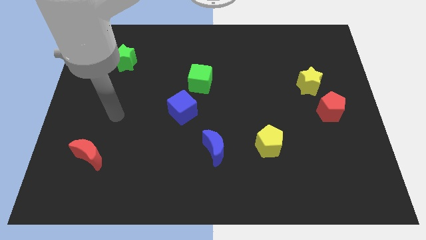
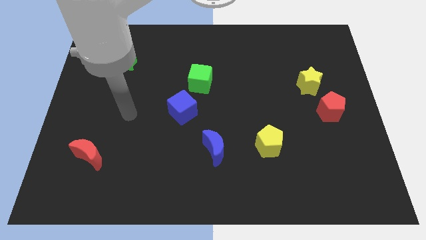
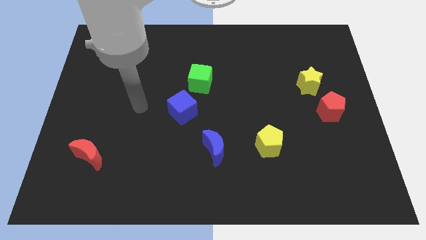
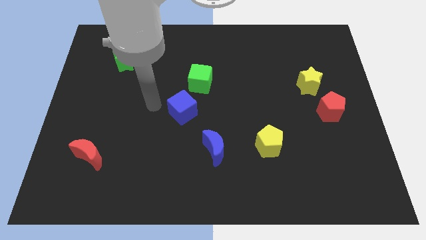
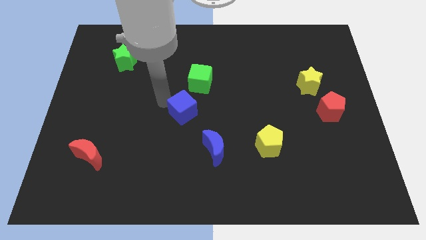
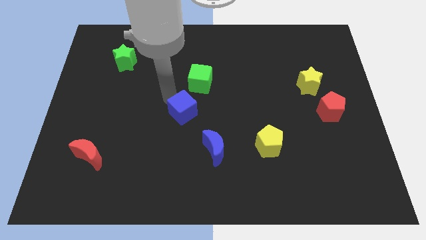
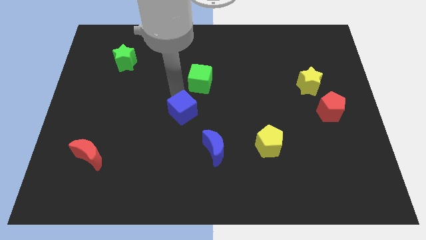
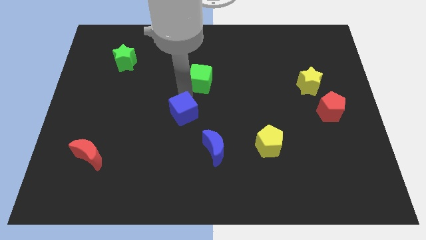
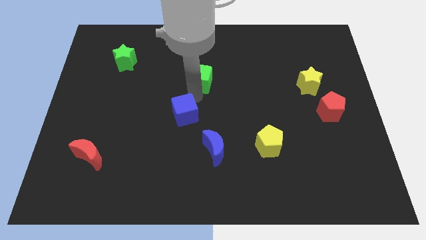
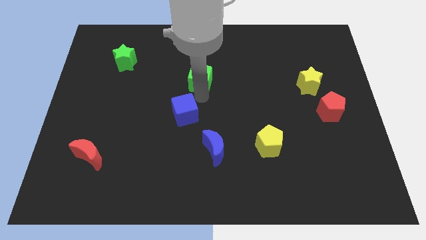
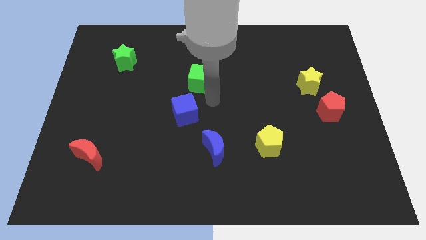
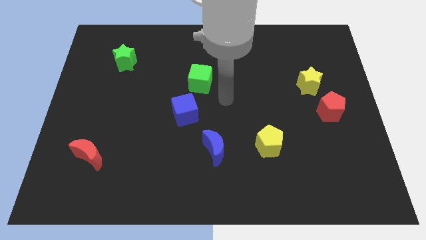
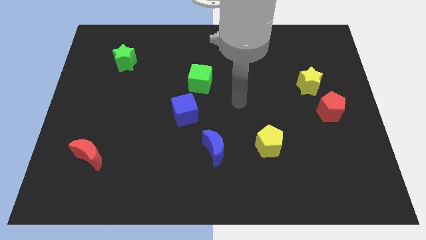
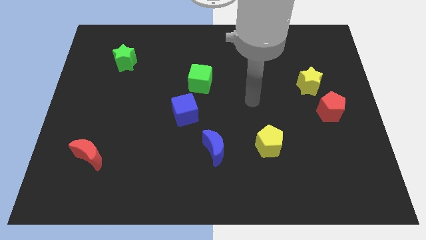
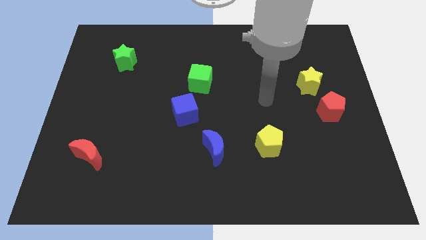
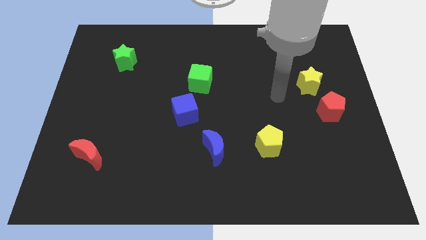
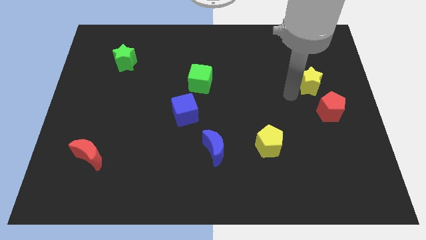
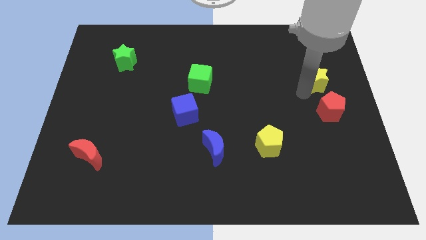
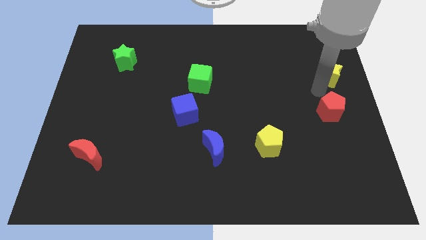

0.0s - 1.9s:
pull the red pentagon apart from the yellow star

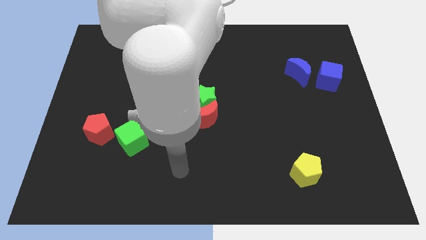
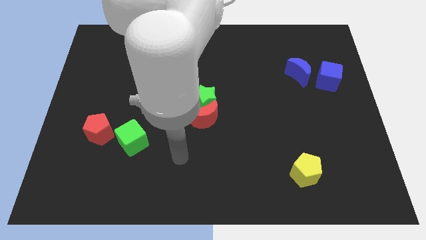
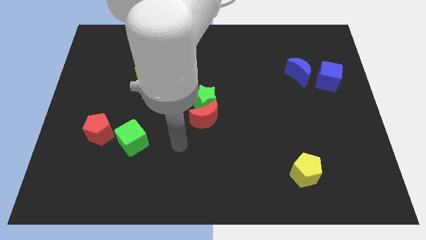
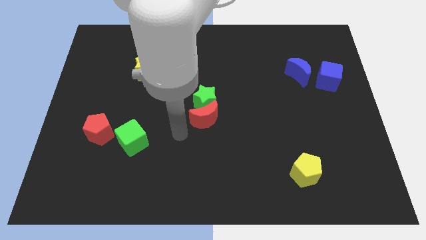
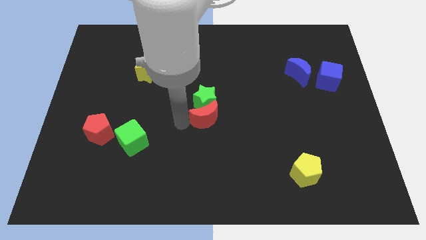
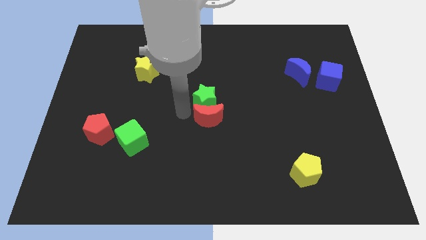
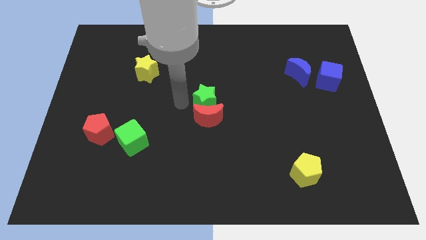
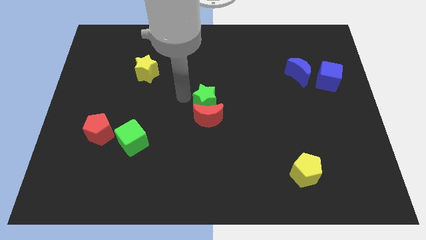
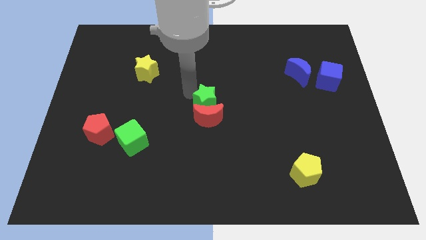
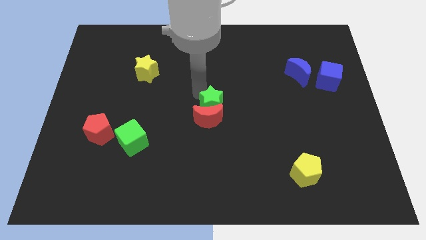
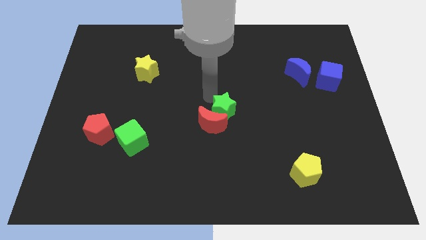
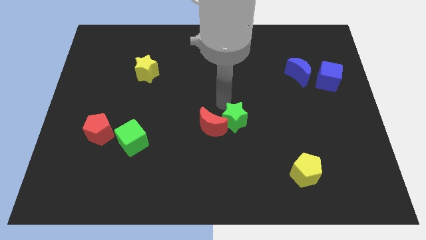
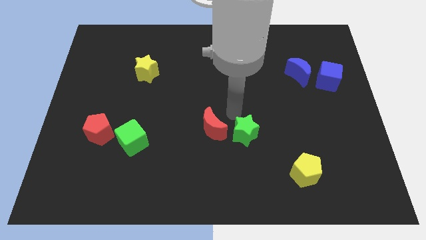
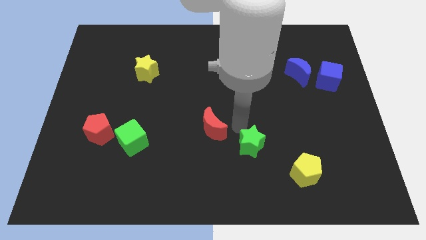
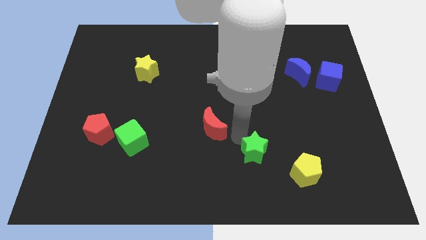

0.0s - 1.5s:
pull the red moon apart from the green star

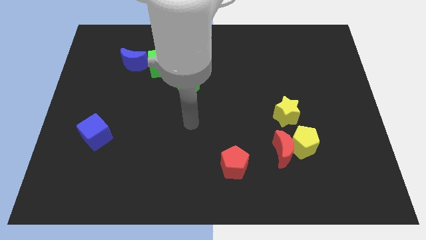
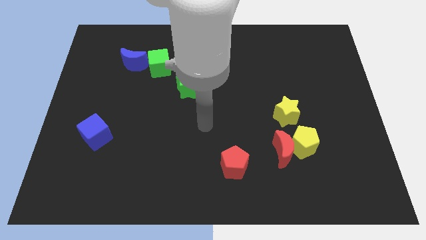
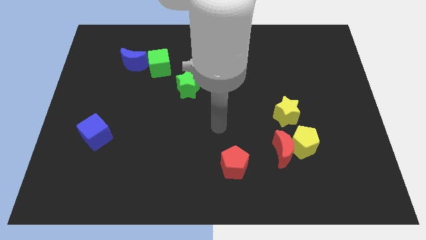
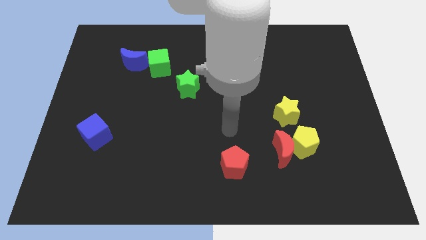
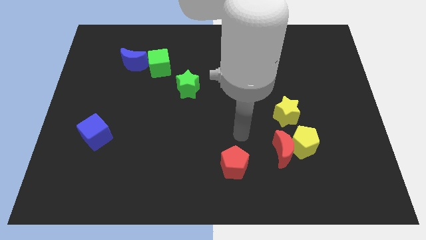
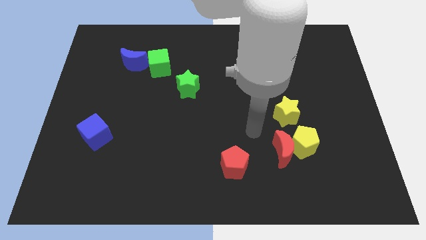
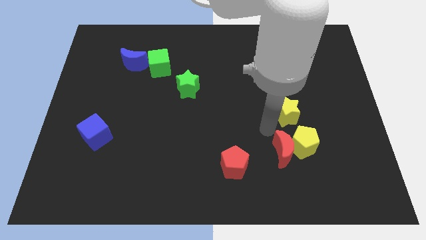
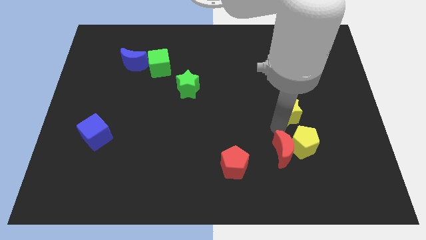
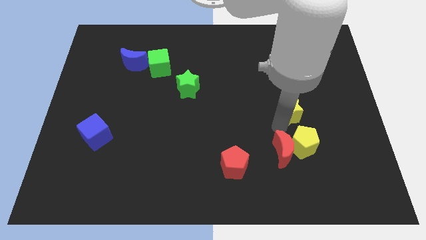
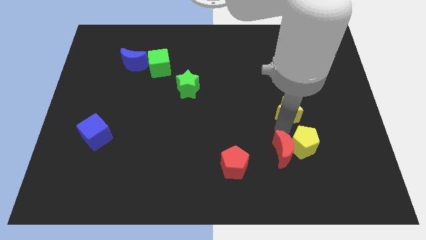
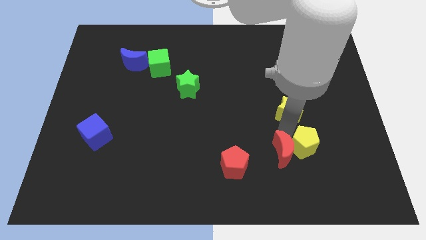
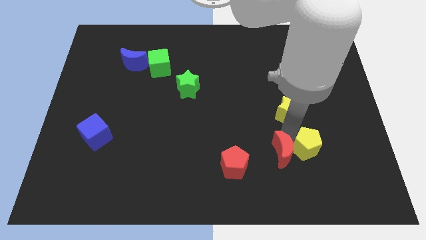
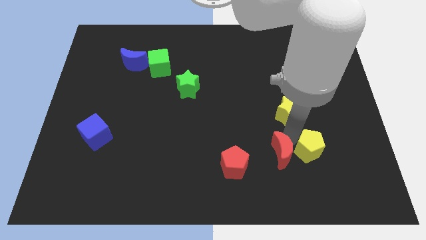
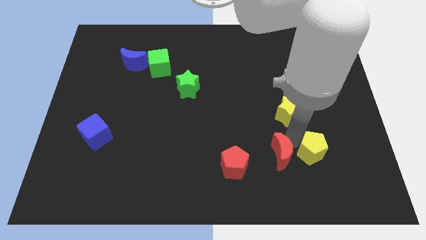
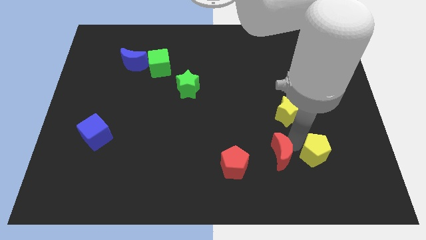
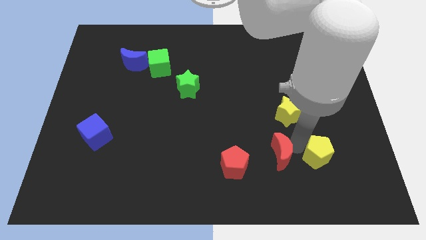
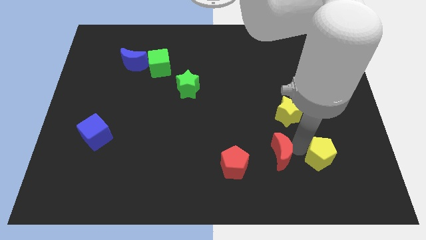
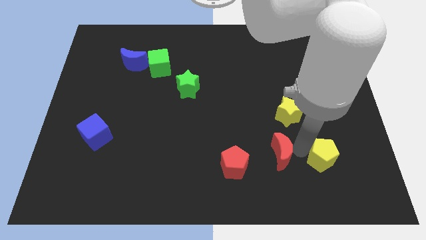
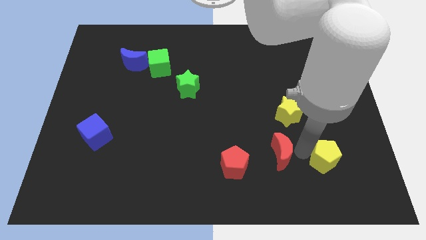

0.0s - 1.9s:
pull the yellow pentagon apart from the red moon and yellow star

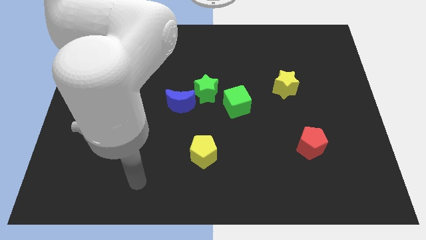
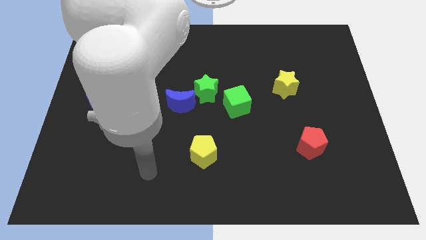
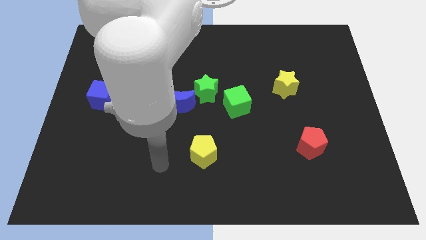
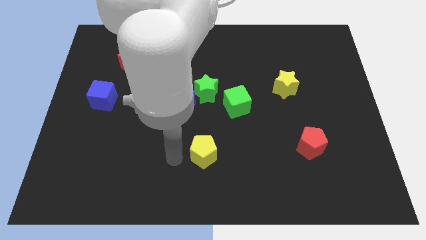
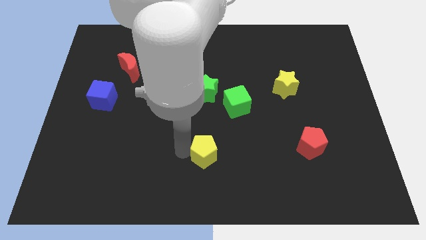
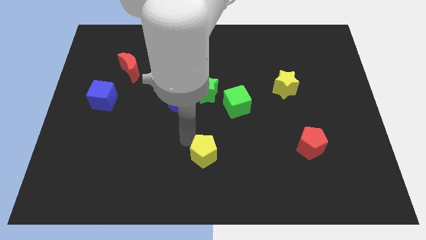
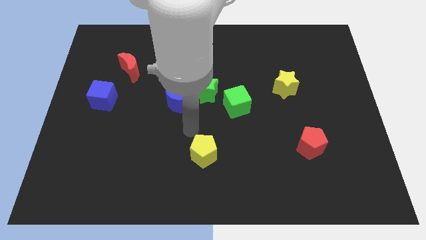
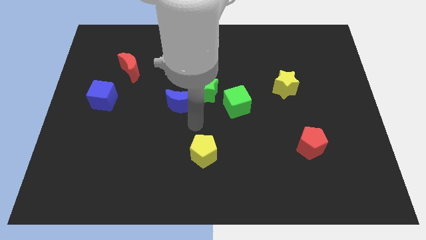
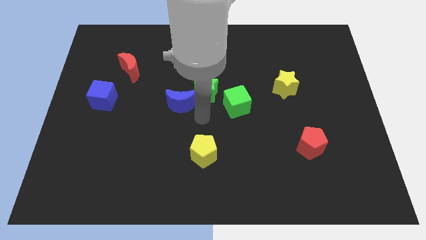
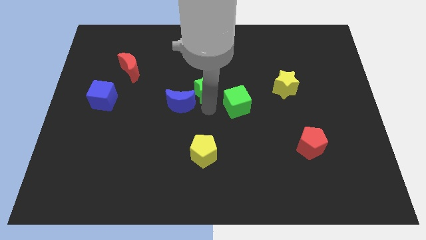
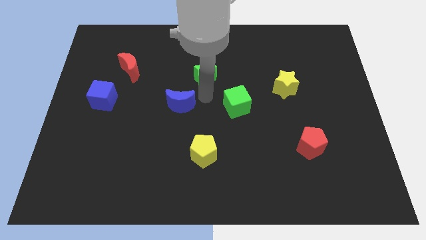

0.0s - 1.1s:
move the blue moon away from the green star

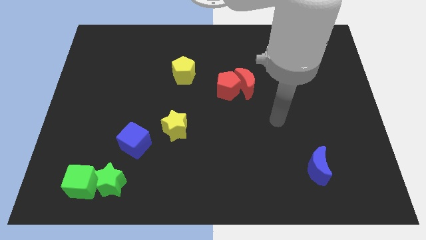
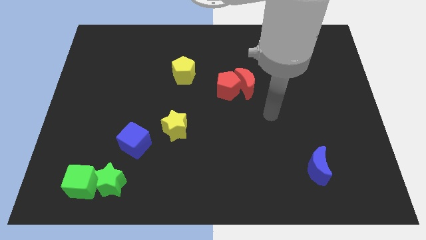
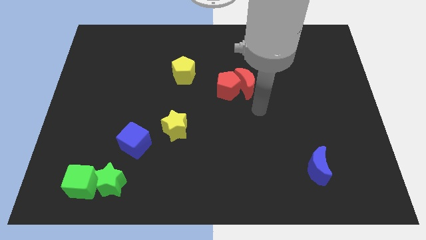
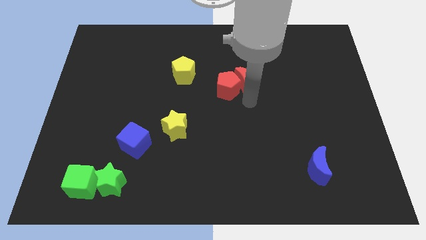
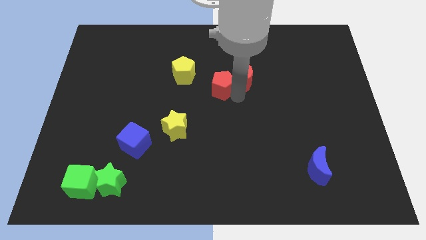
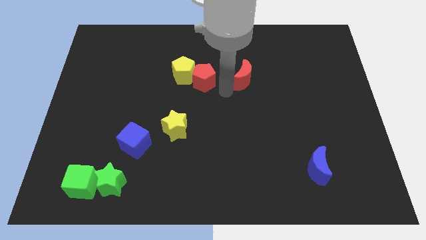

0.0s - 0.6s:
move the red moon away from the red pentagon

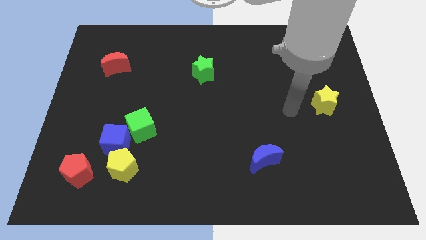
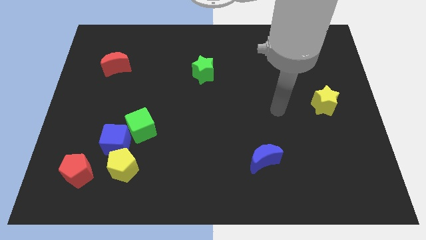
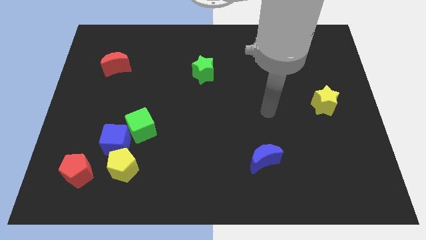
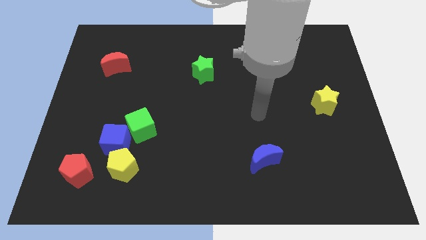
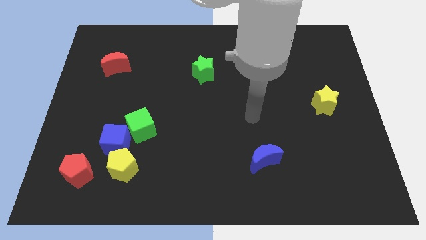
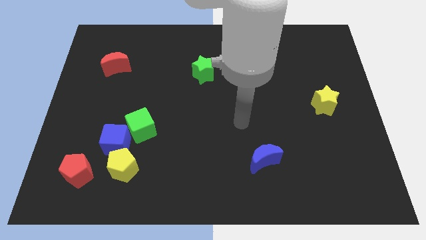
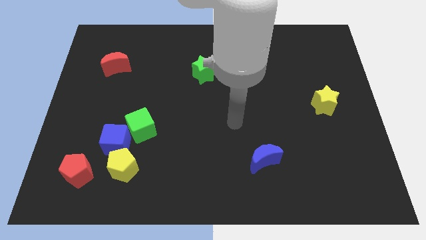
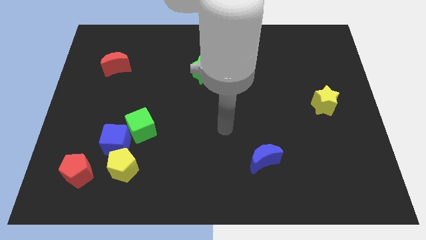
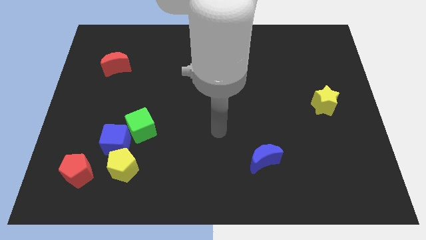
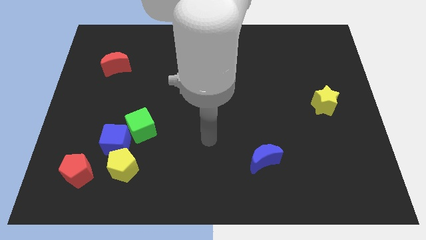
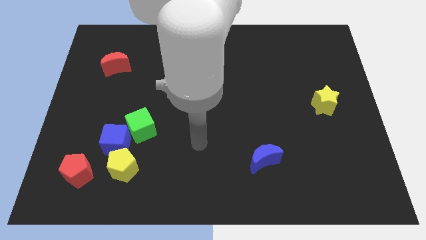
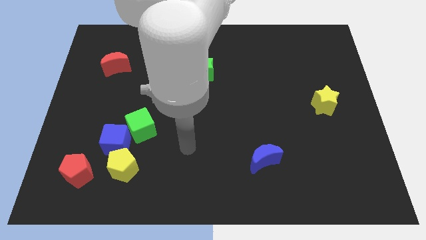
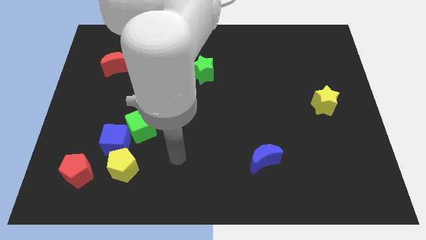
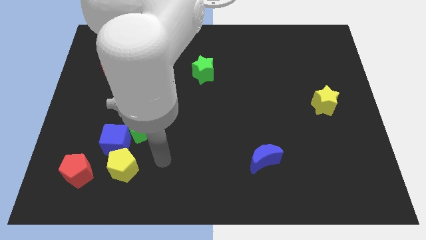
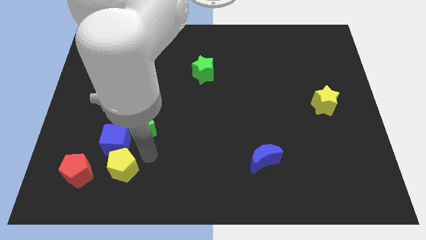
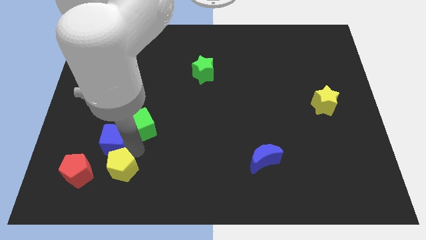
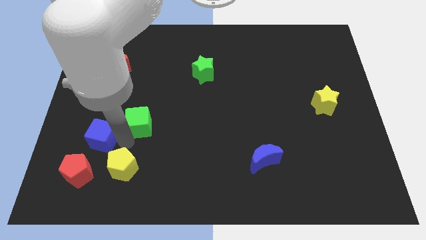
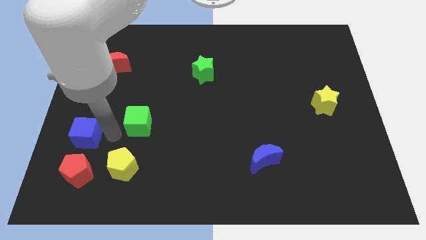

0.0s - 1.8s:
move the green cube away from the blue cube

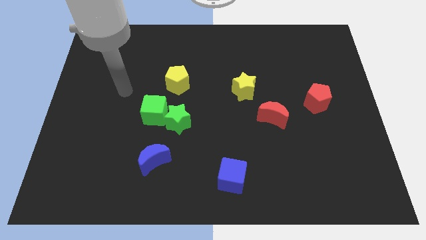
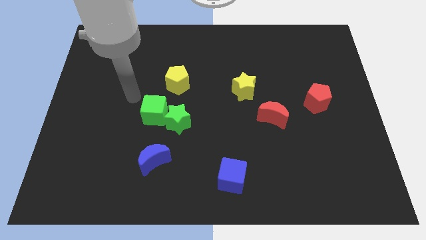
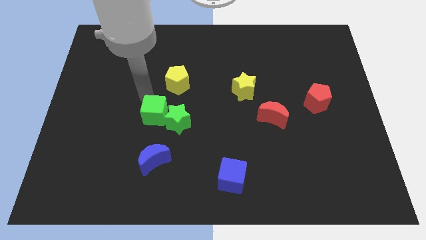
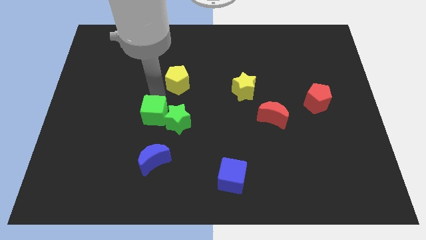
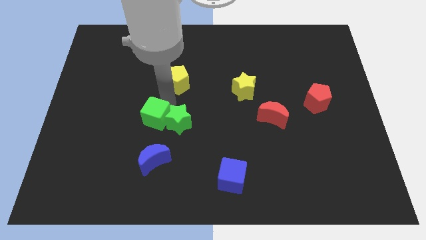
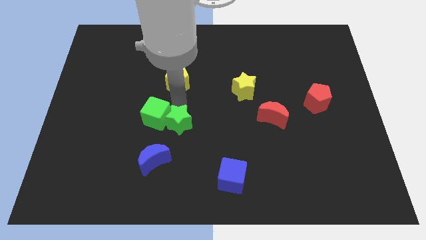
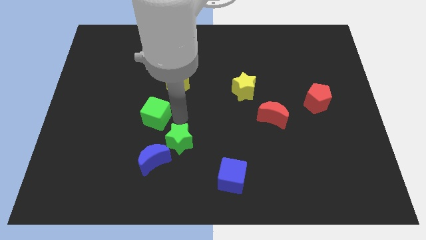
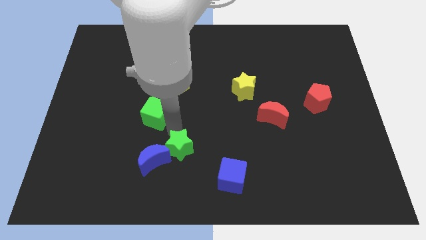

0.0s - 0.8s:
pull the green cube apart from the green star
